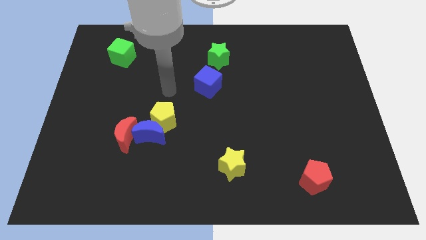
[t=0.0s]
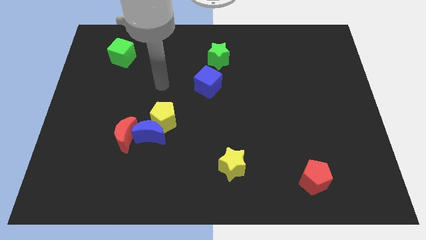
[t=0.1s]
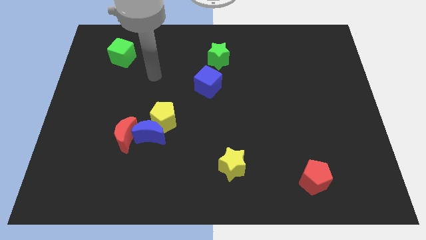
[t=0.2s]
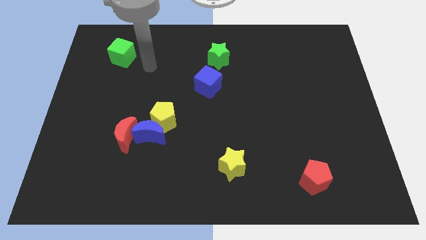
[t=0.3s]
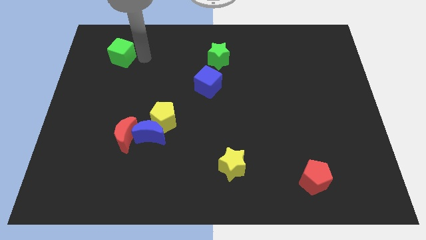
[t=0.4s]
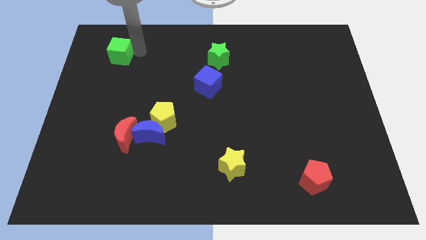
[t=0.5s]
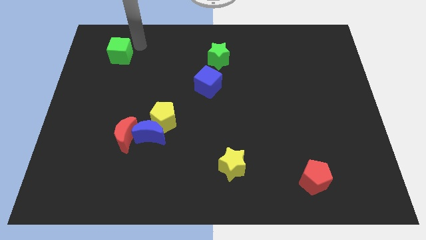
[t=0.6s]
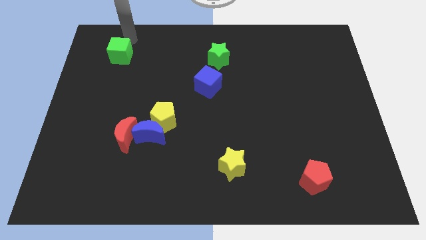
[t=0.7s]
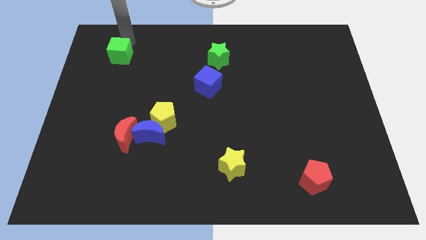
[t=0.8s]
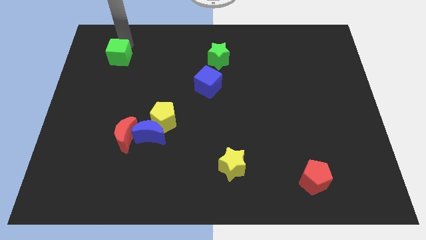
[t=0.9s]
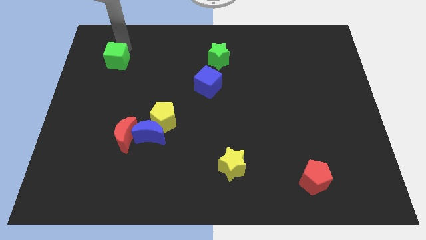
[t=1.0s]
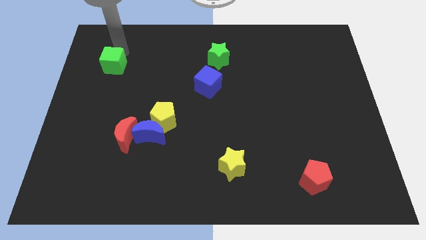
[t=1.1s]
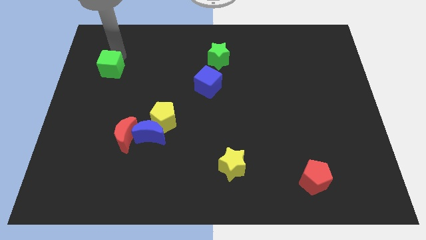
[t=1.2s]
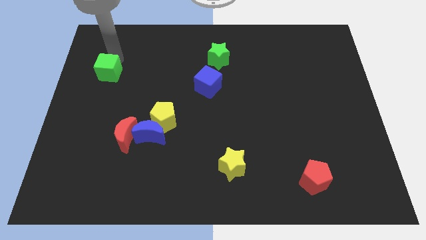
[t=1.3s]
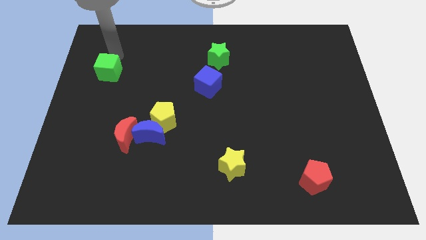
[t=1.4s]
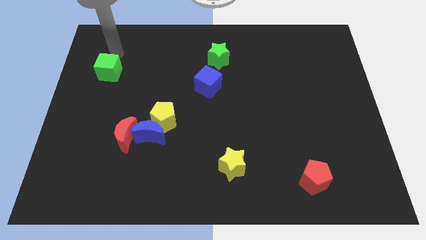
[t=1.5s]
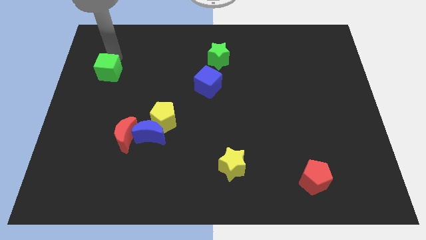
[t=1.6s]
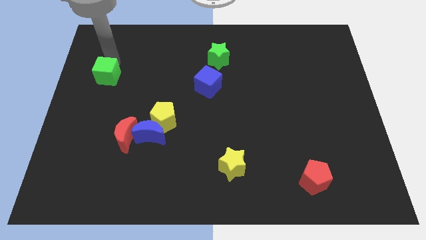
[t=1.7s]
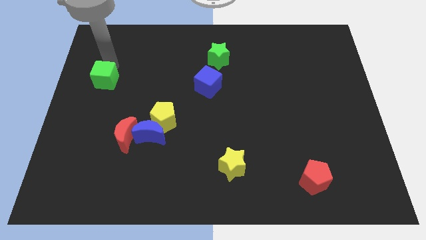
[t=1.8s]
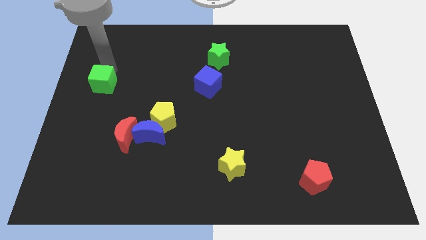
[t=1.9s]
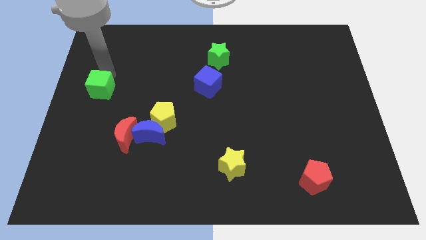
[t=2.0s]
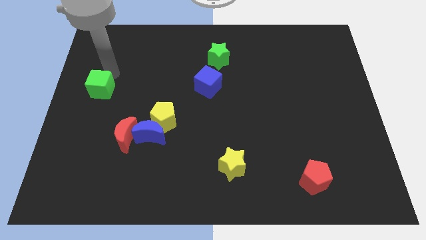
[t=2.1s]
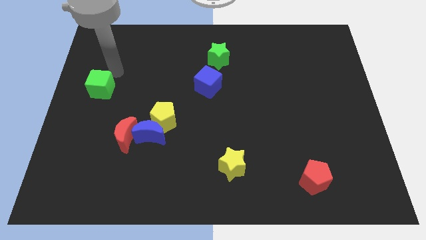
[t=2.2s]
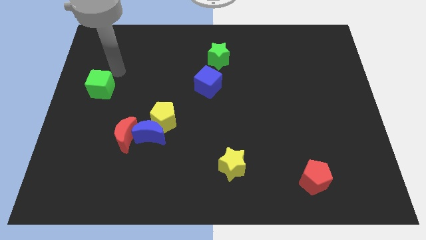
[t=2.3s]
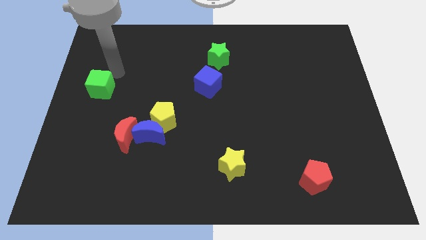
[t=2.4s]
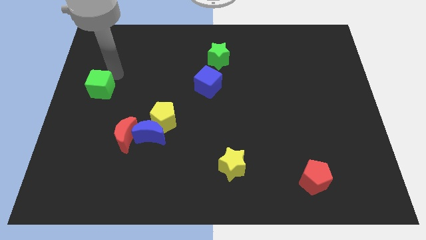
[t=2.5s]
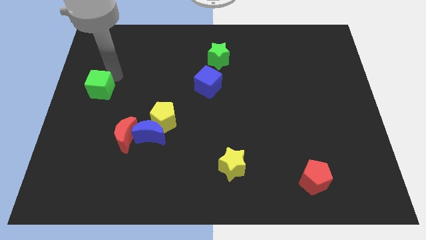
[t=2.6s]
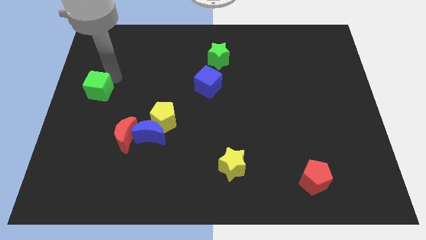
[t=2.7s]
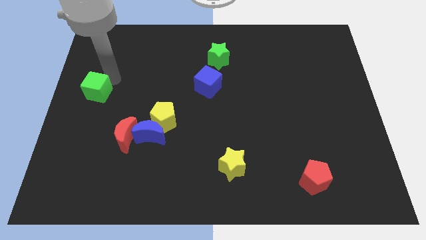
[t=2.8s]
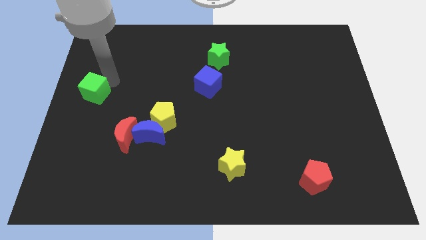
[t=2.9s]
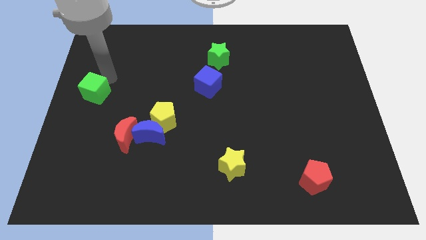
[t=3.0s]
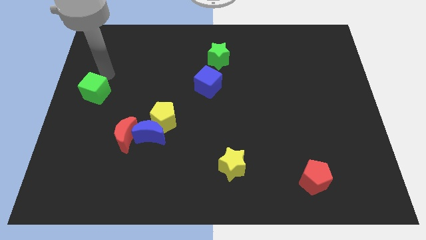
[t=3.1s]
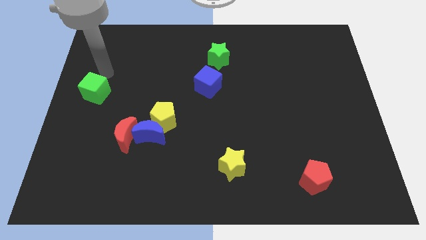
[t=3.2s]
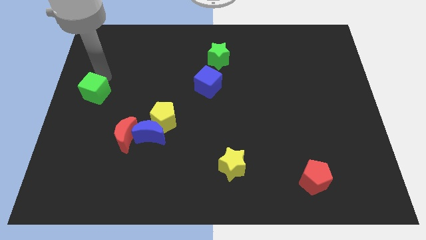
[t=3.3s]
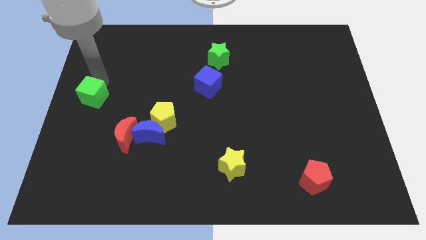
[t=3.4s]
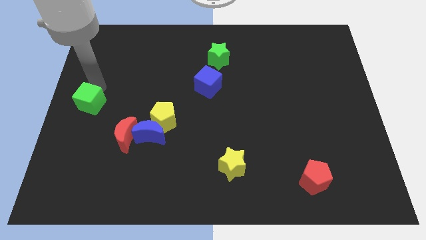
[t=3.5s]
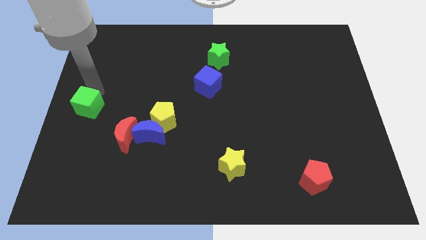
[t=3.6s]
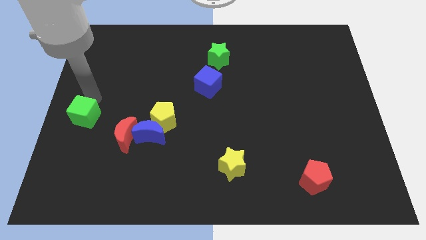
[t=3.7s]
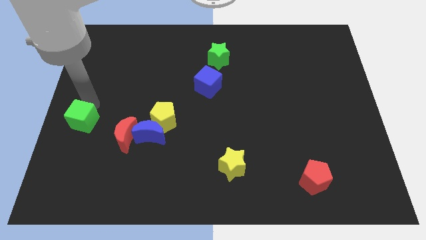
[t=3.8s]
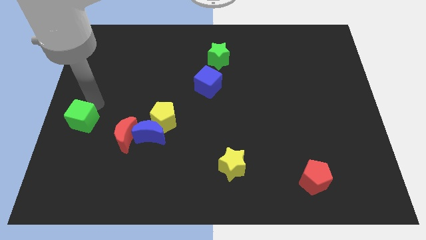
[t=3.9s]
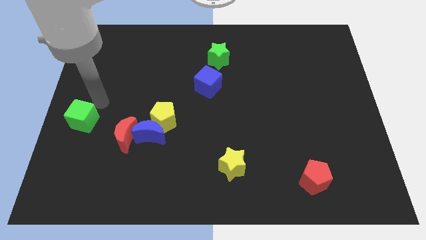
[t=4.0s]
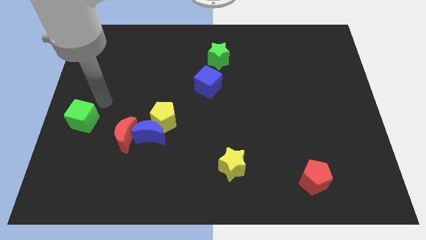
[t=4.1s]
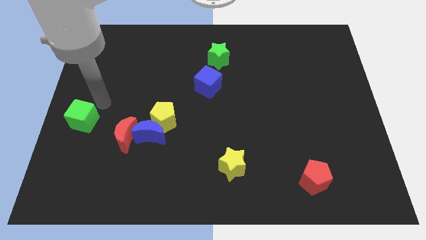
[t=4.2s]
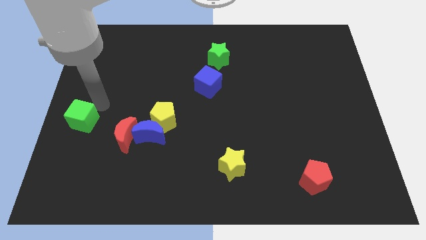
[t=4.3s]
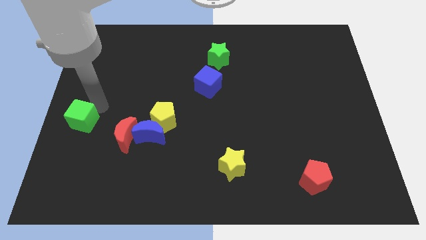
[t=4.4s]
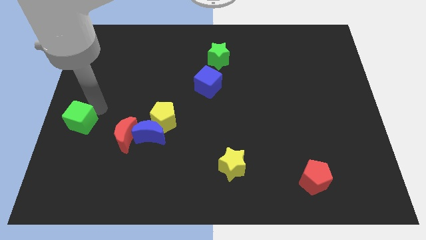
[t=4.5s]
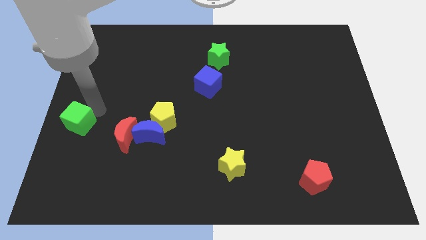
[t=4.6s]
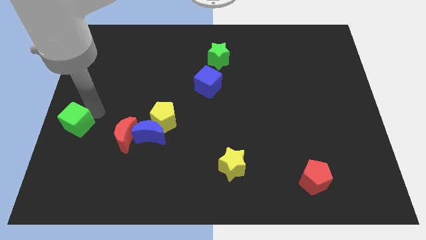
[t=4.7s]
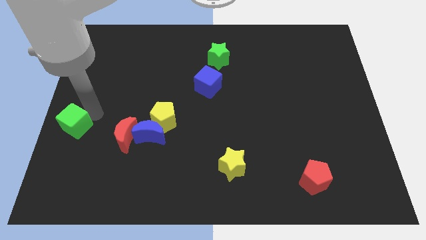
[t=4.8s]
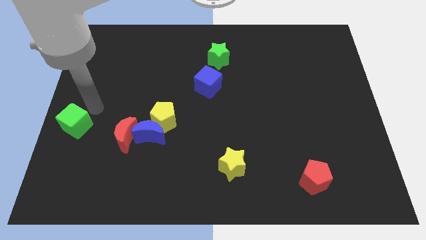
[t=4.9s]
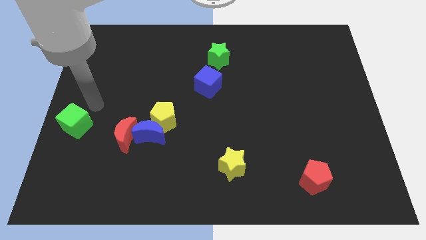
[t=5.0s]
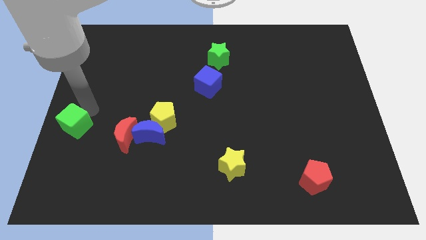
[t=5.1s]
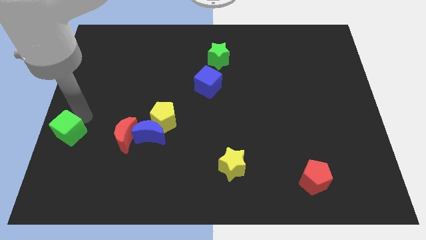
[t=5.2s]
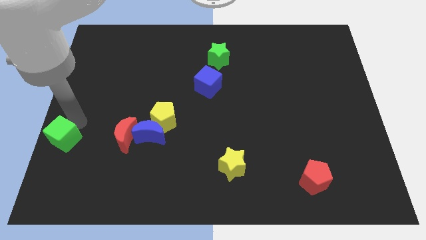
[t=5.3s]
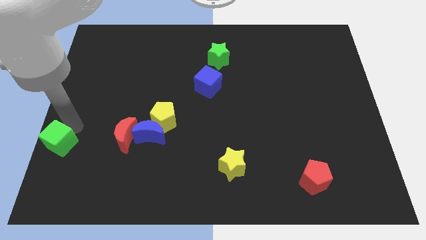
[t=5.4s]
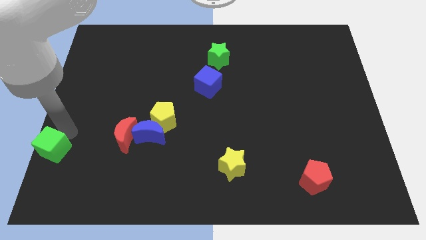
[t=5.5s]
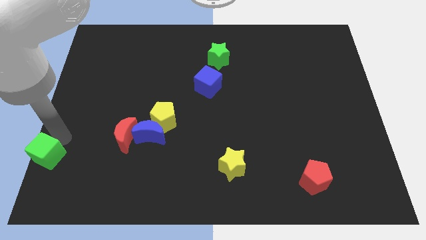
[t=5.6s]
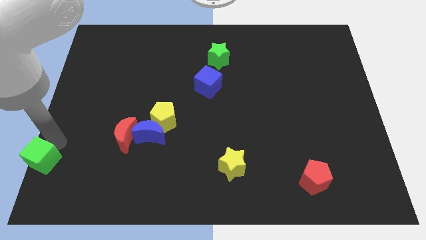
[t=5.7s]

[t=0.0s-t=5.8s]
move the green cube to the lower left corner

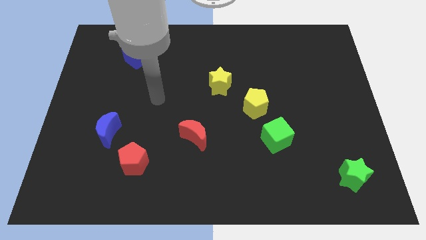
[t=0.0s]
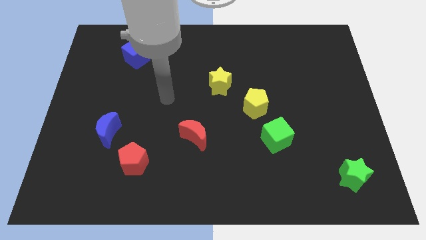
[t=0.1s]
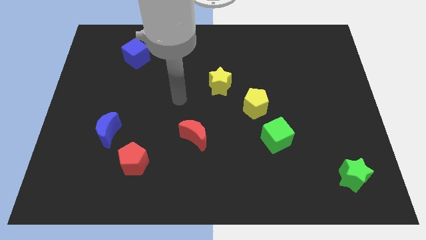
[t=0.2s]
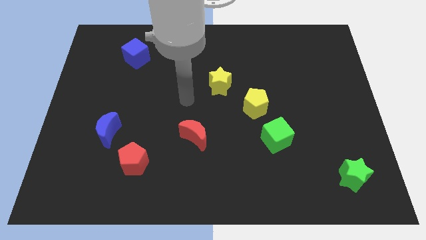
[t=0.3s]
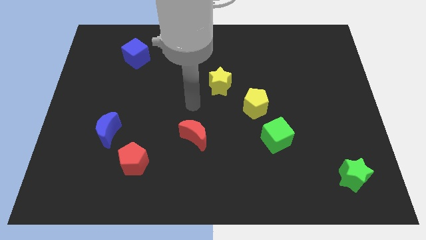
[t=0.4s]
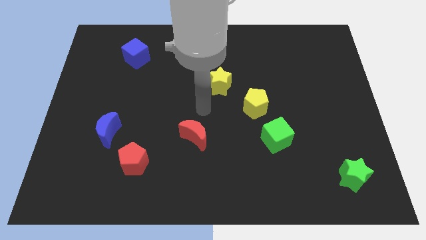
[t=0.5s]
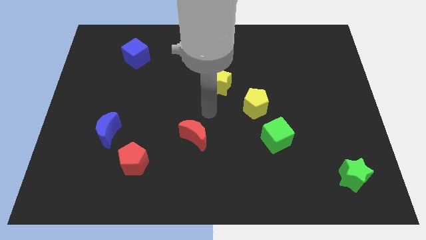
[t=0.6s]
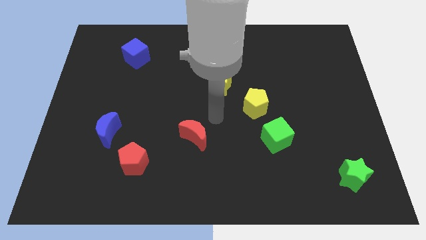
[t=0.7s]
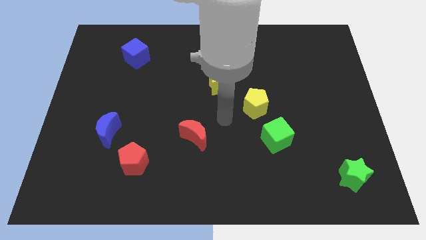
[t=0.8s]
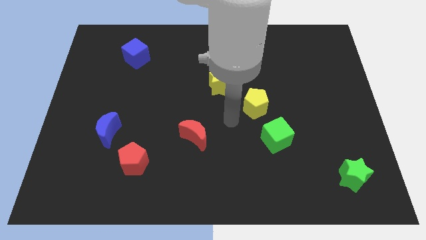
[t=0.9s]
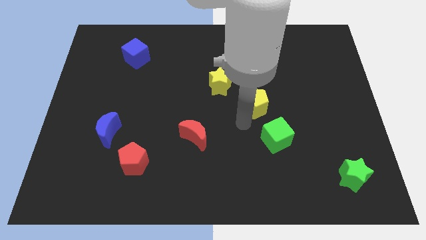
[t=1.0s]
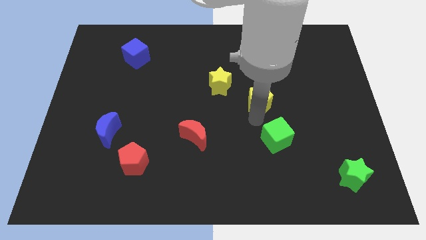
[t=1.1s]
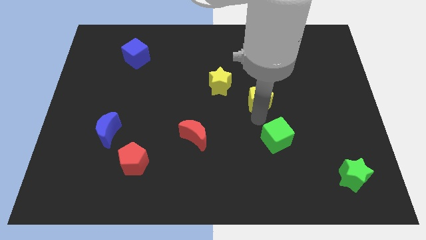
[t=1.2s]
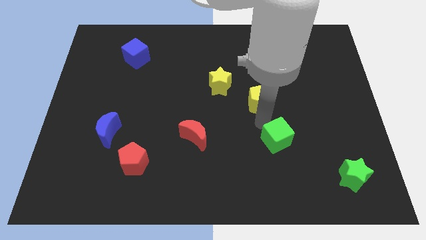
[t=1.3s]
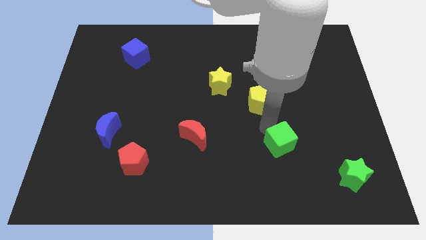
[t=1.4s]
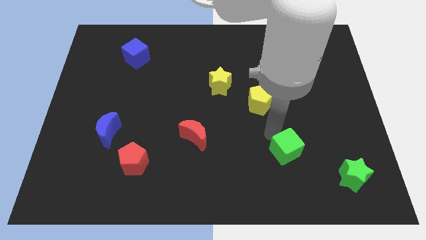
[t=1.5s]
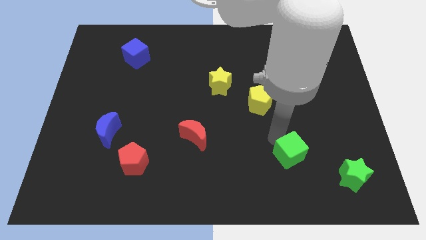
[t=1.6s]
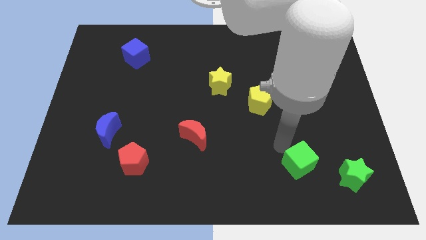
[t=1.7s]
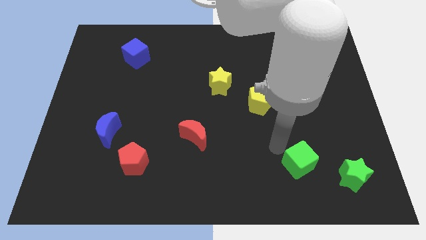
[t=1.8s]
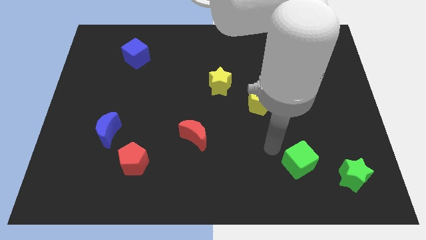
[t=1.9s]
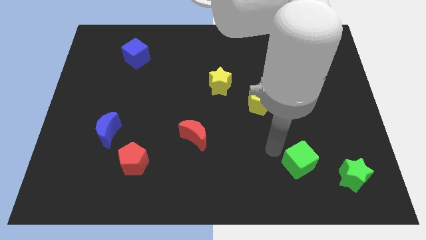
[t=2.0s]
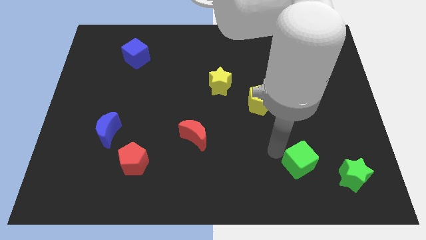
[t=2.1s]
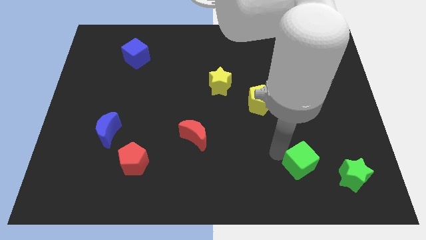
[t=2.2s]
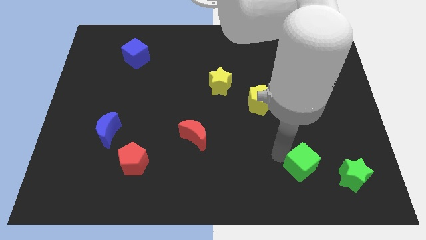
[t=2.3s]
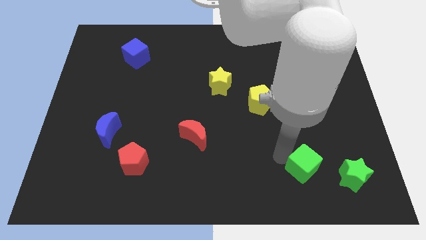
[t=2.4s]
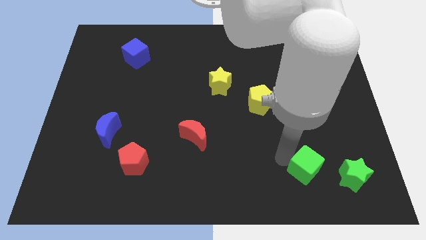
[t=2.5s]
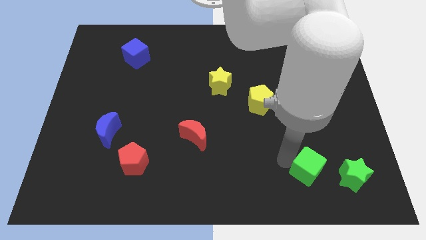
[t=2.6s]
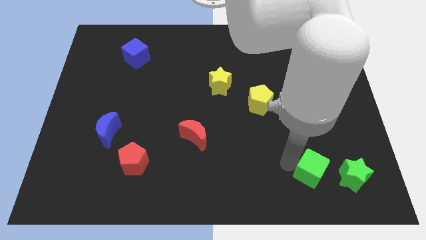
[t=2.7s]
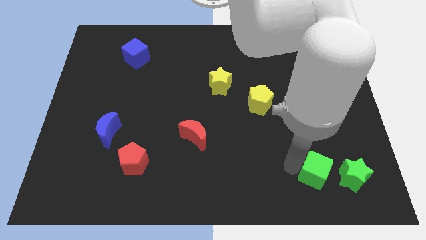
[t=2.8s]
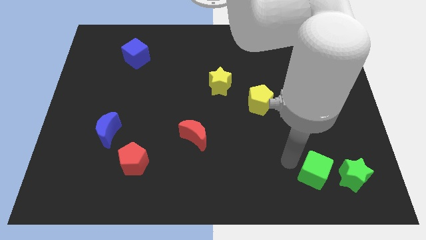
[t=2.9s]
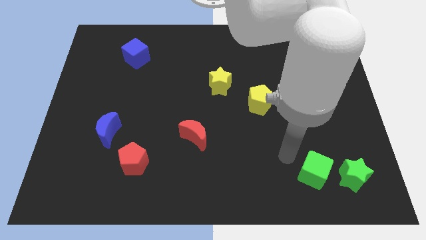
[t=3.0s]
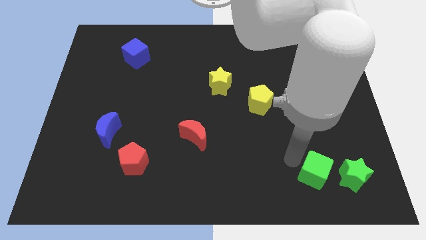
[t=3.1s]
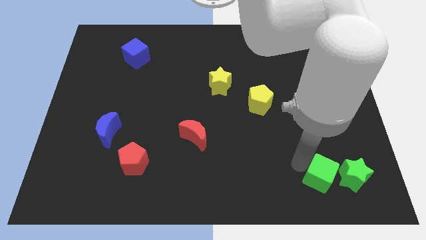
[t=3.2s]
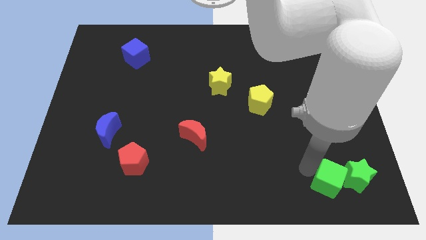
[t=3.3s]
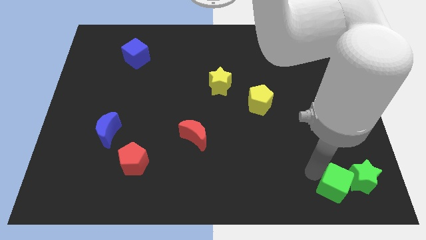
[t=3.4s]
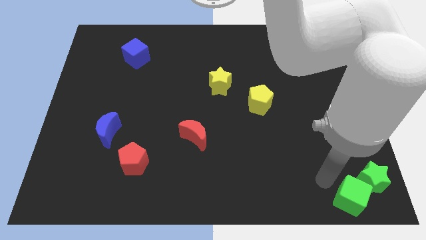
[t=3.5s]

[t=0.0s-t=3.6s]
push the green cube to the bottom right
